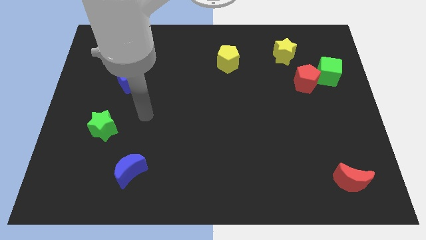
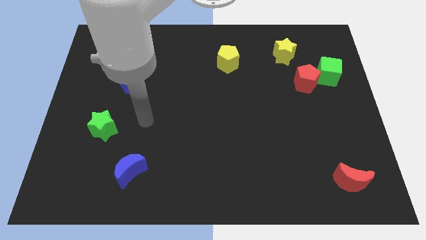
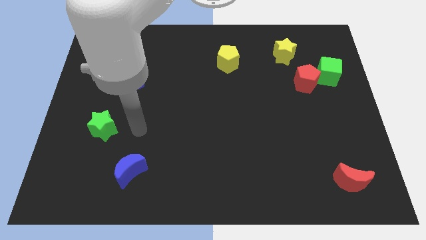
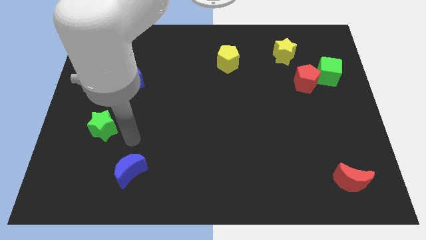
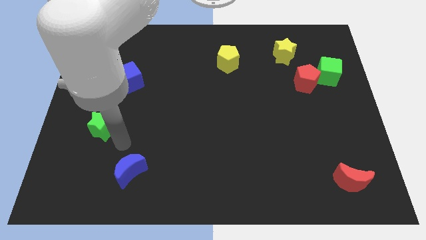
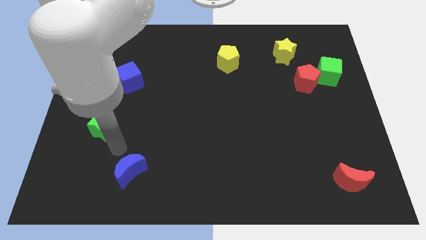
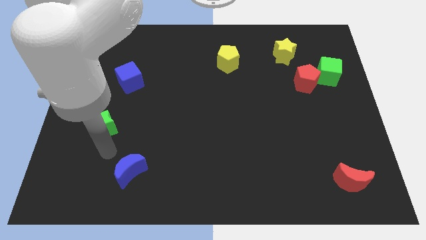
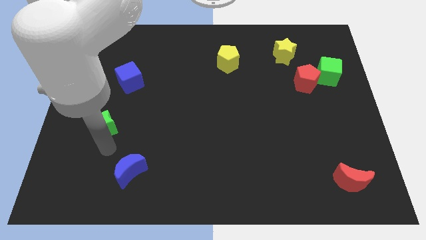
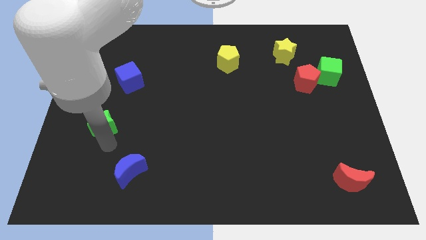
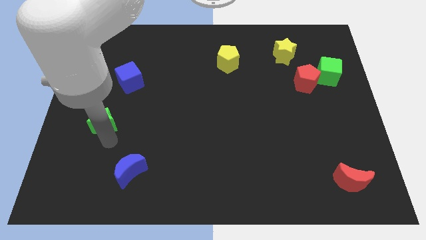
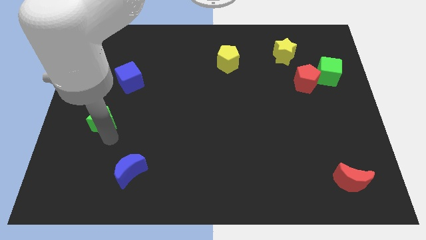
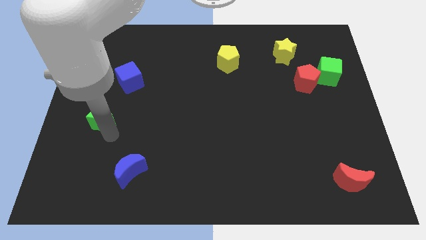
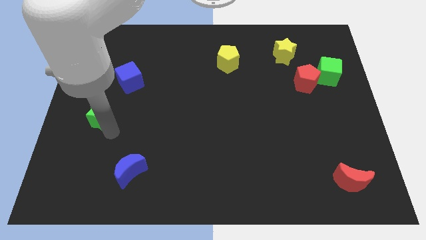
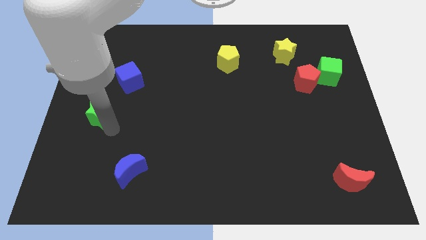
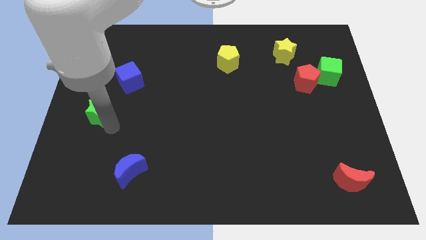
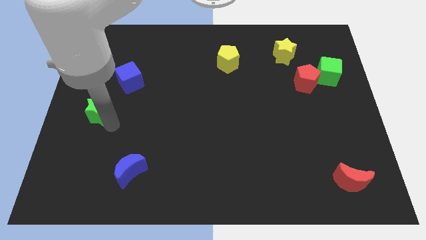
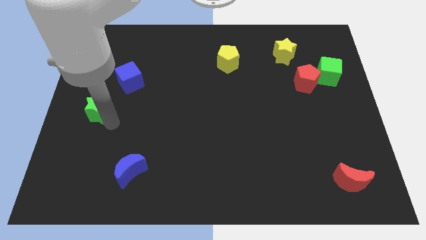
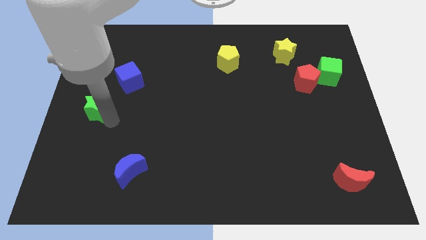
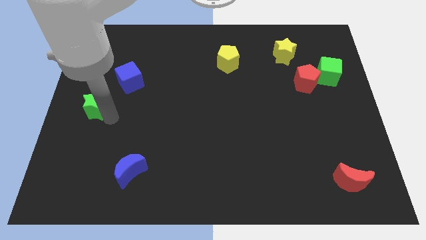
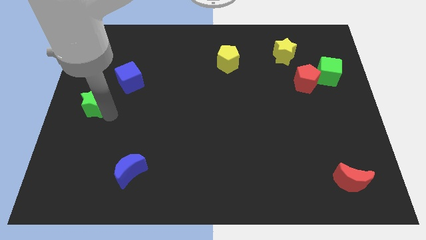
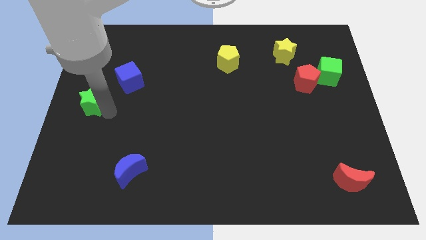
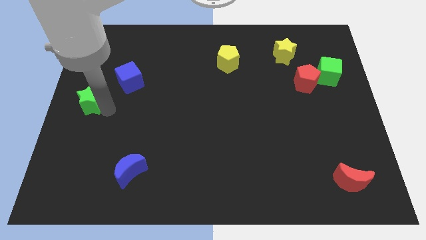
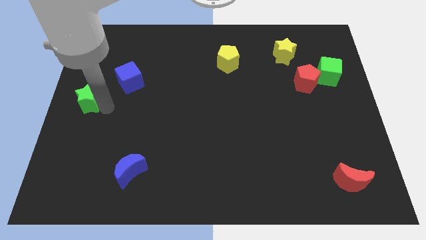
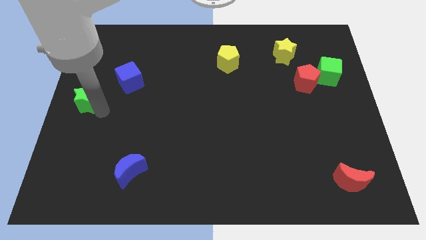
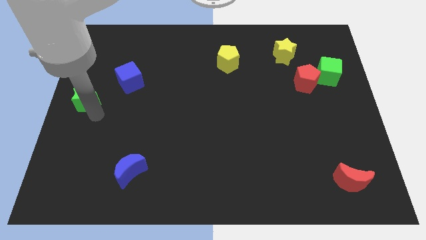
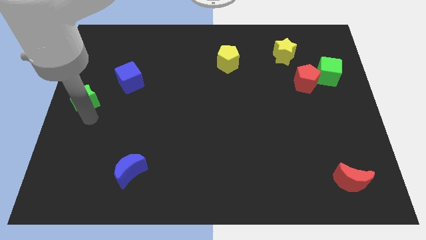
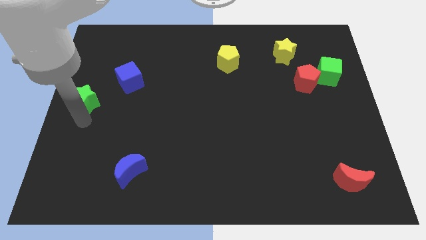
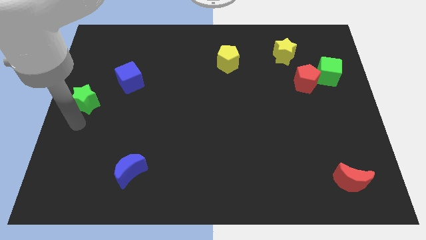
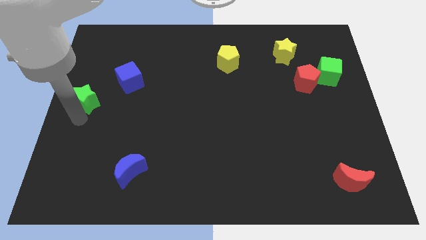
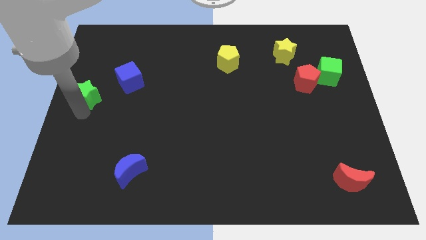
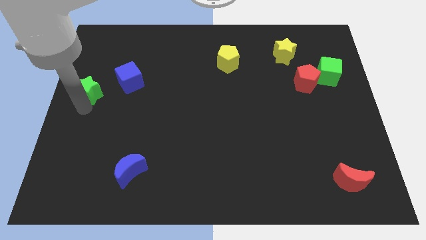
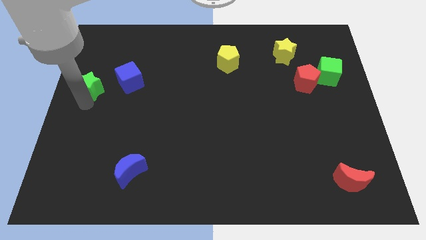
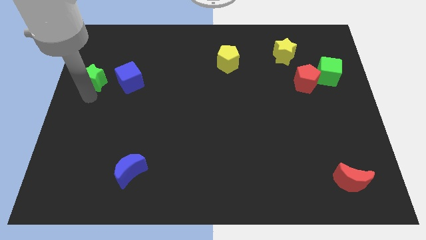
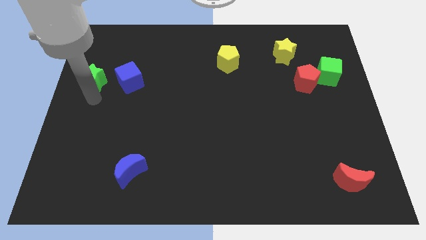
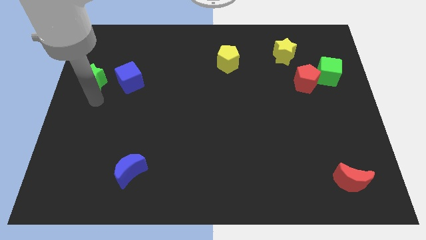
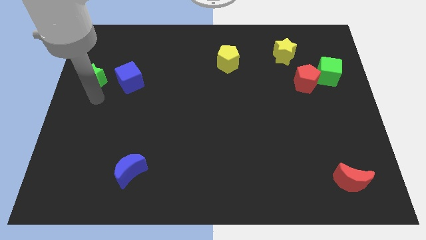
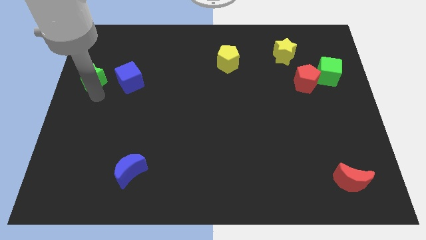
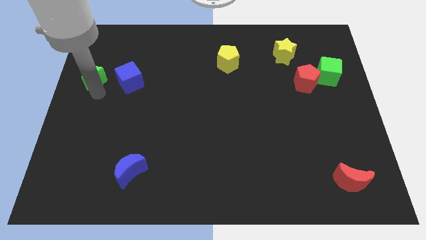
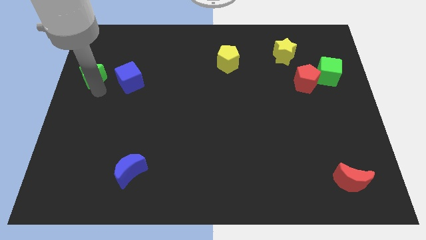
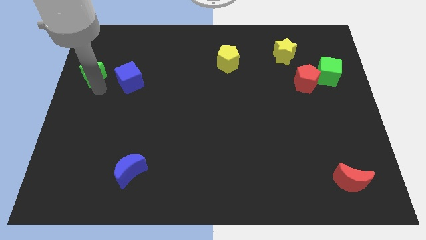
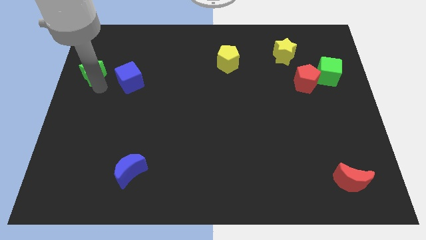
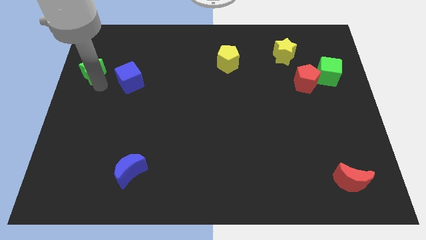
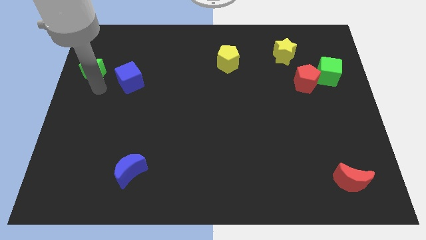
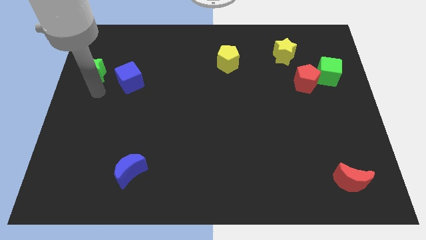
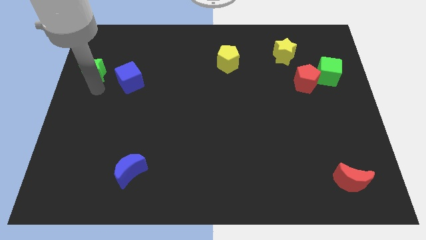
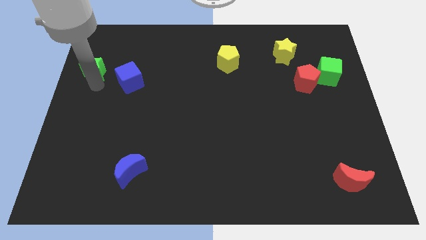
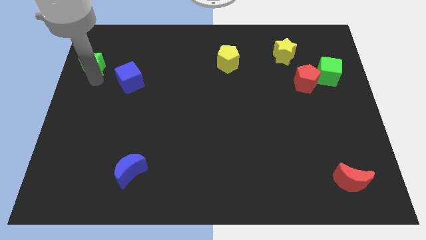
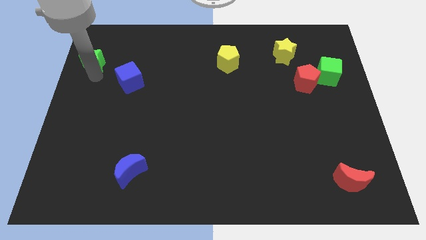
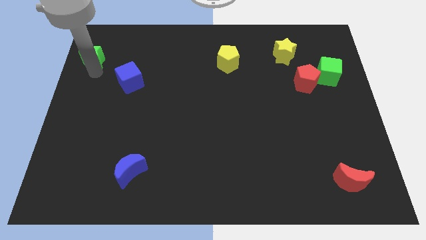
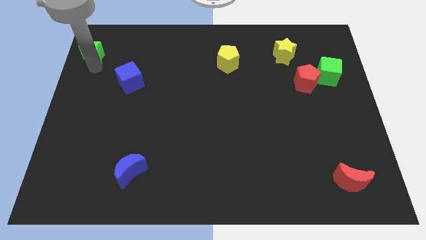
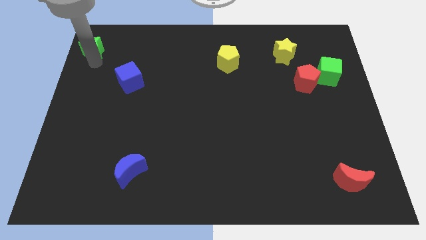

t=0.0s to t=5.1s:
move the green star to the upper left corner

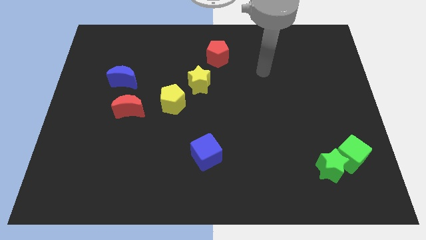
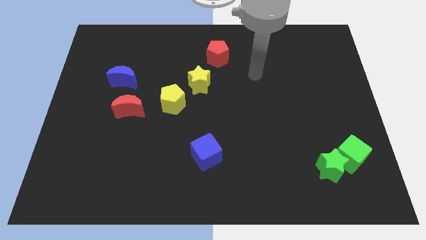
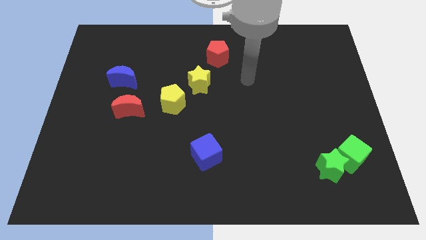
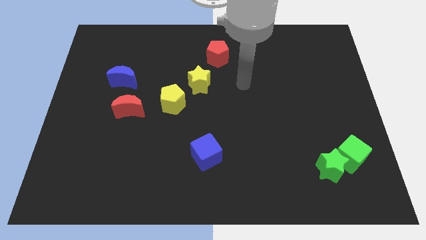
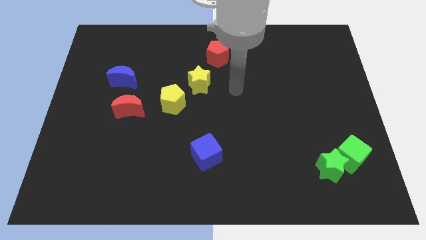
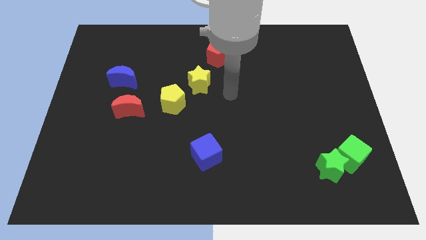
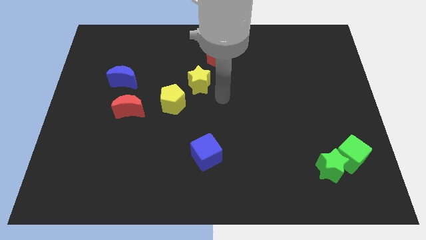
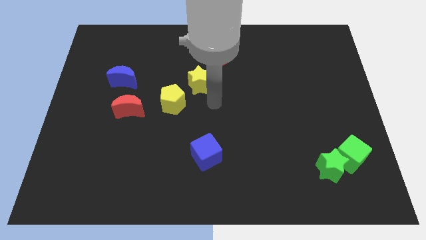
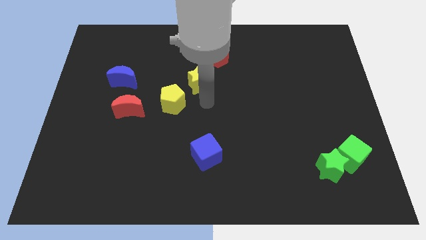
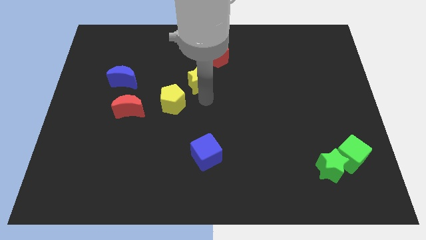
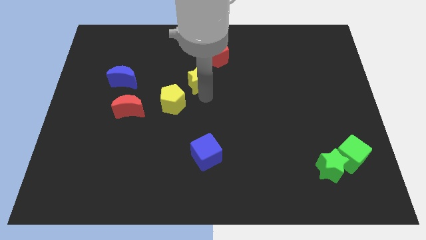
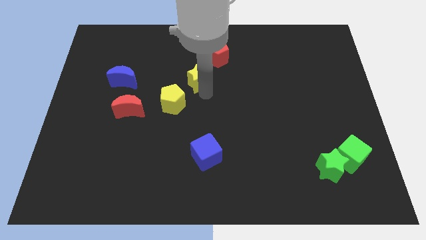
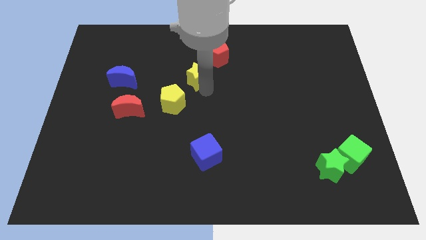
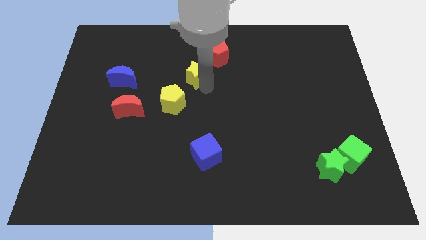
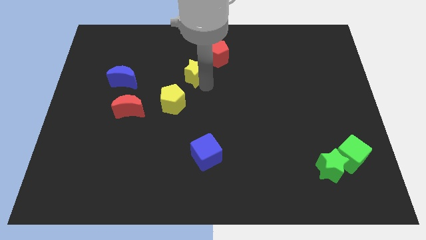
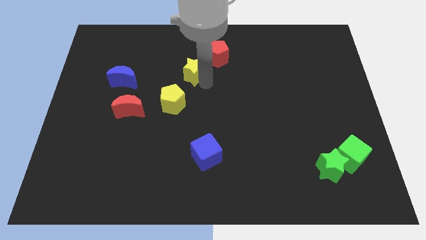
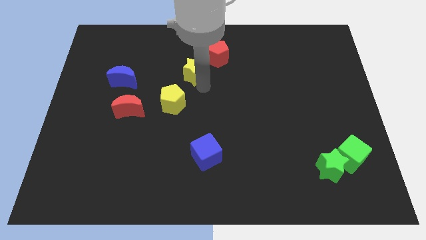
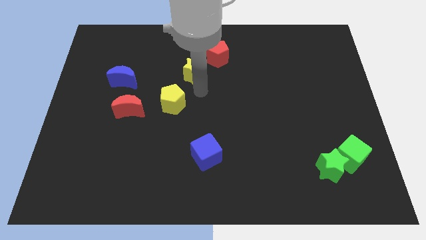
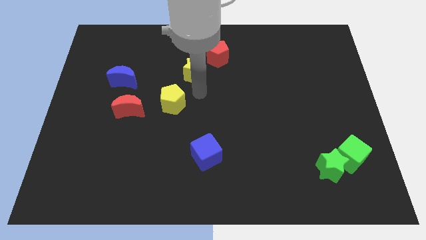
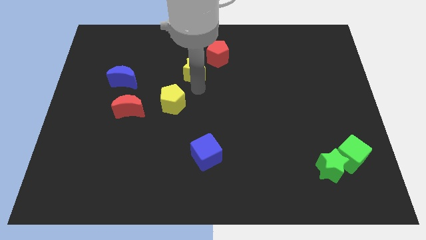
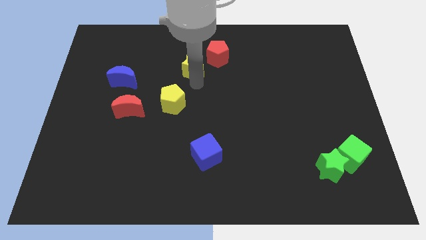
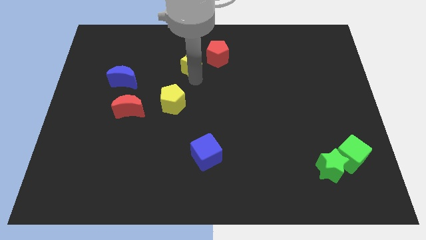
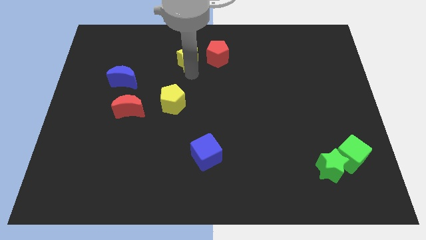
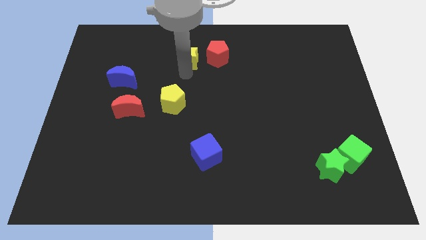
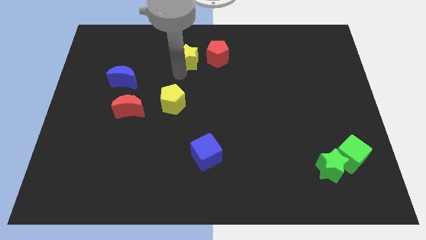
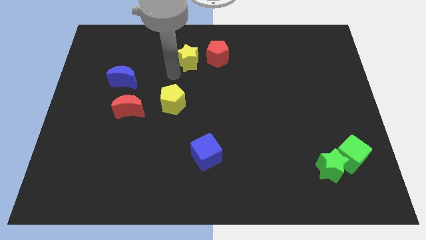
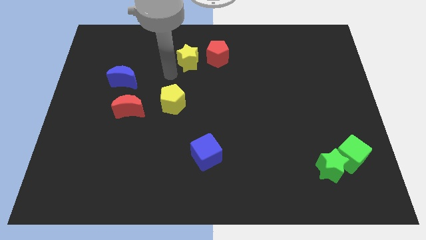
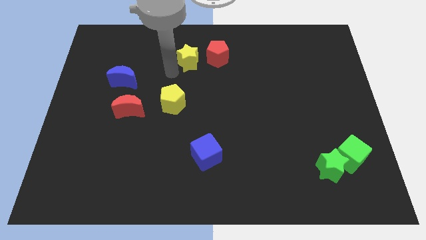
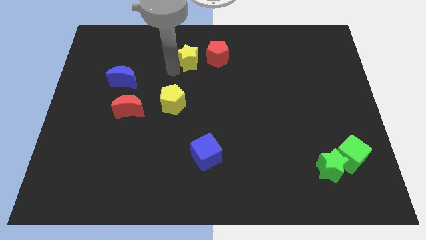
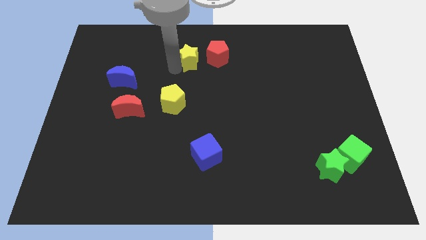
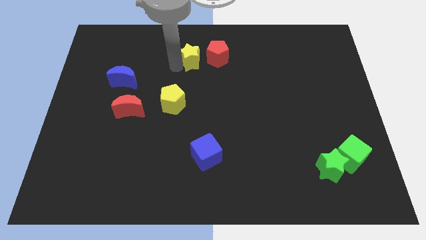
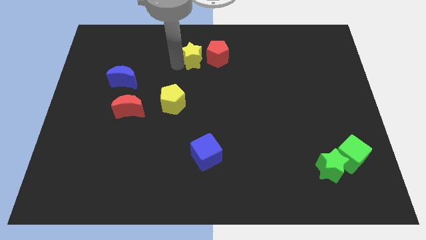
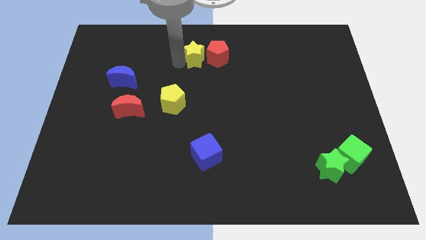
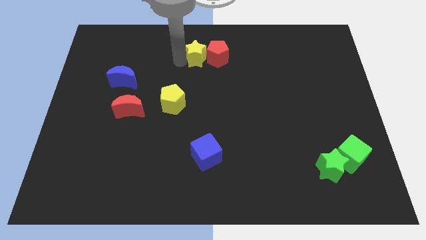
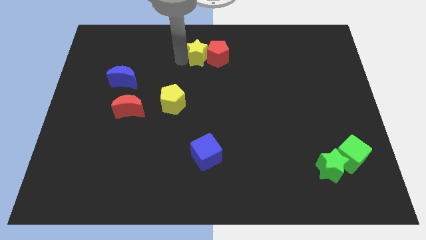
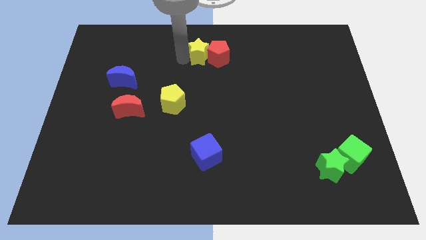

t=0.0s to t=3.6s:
push the yellow star to the top
